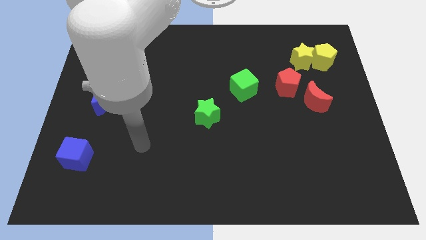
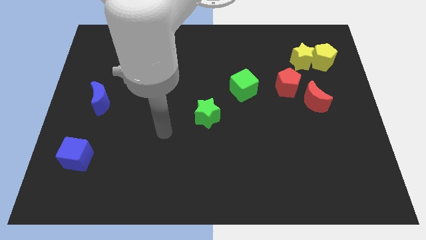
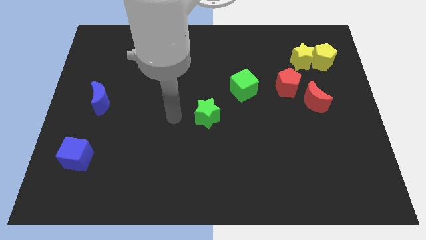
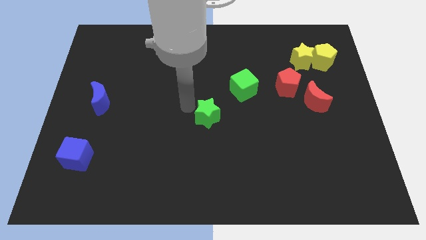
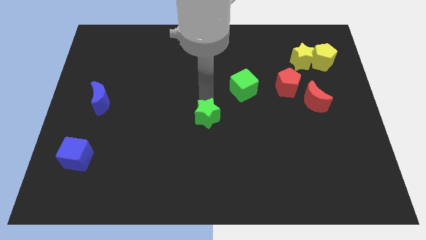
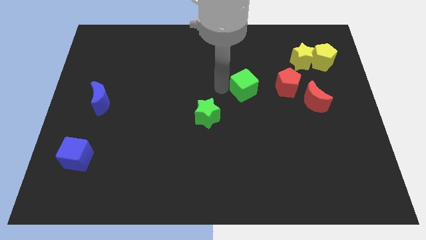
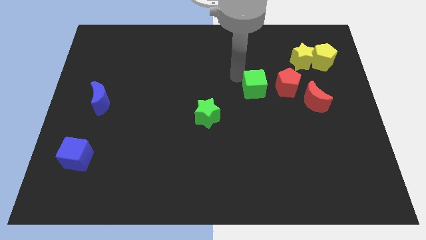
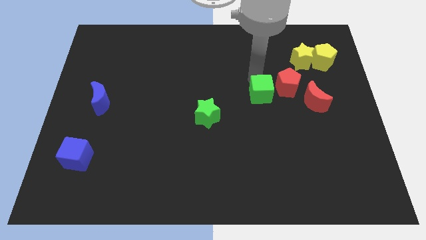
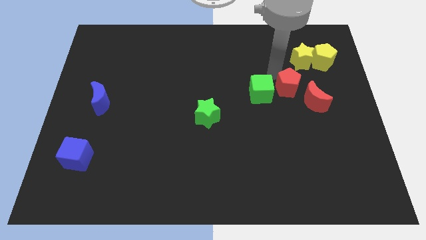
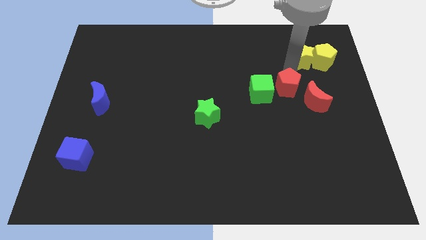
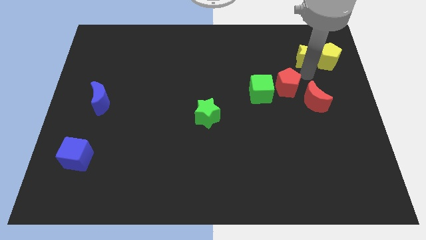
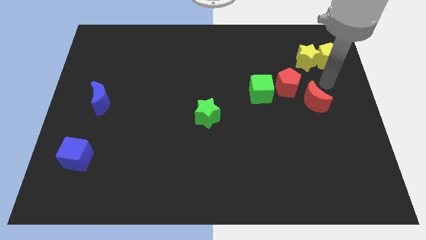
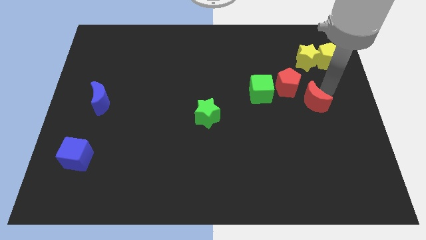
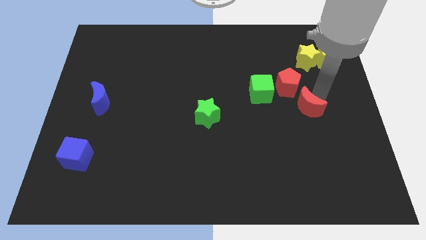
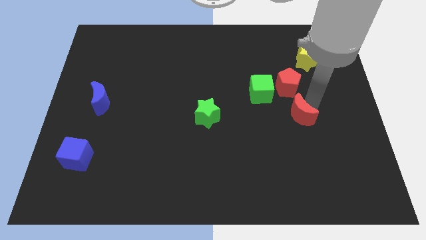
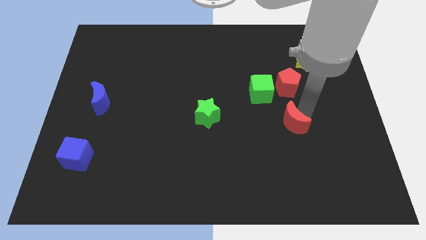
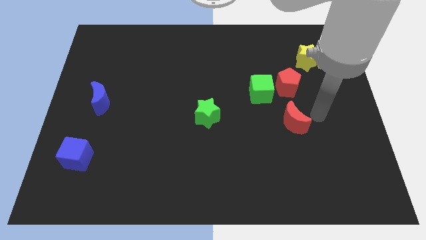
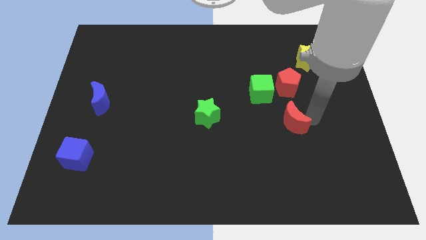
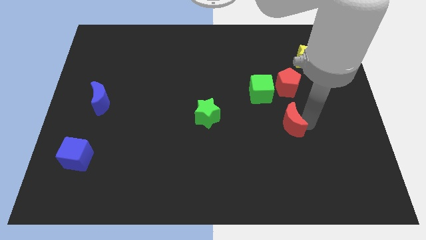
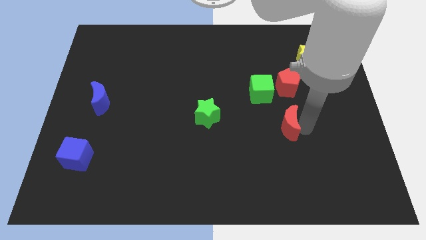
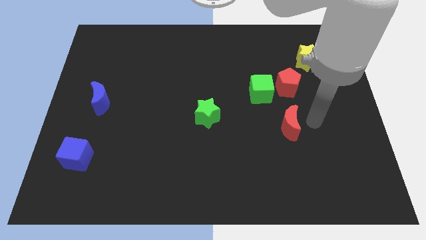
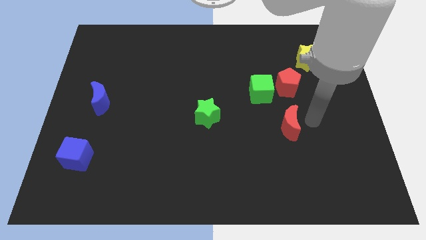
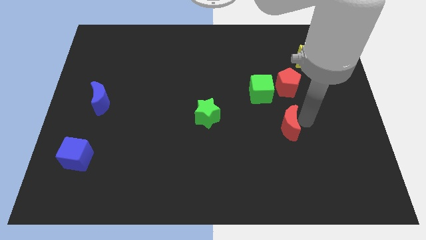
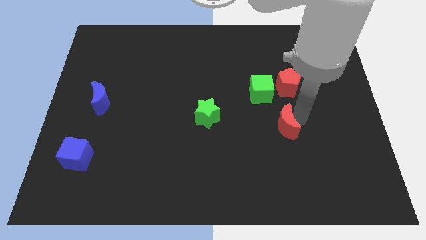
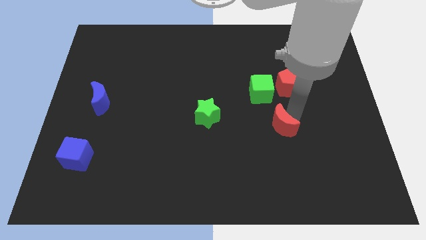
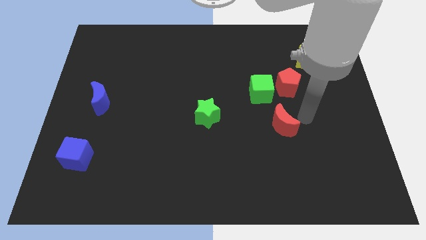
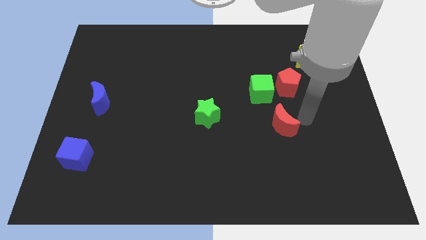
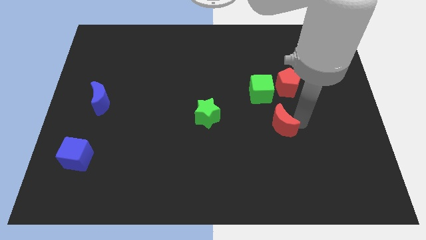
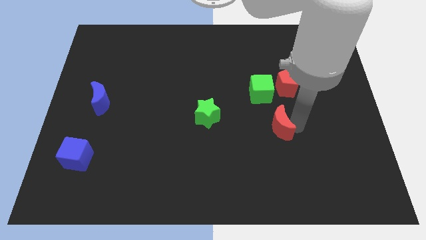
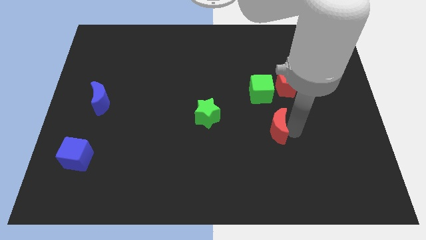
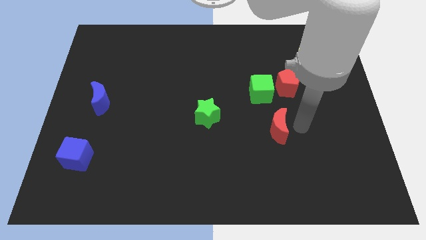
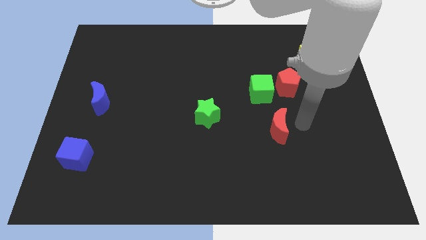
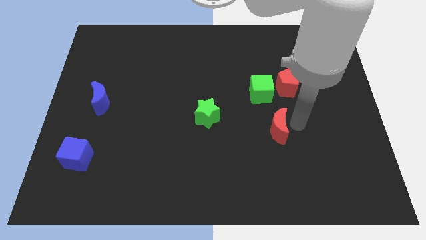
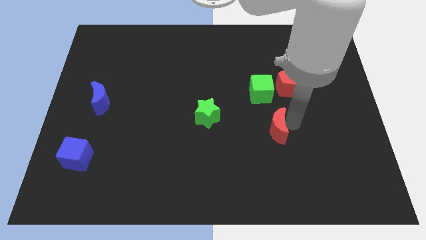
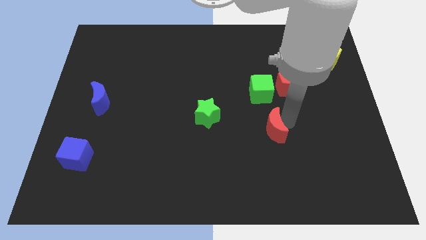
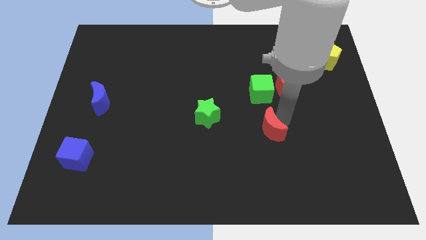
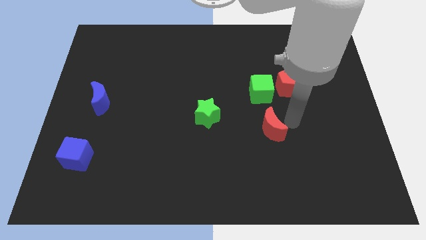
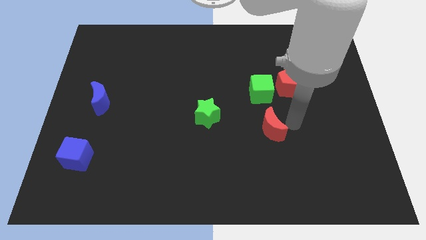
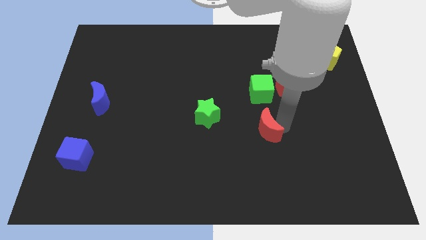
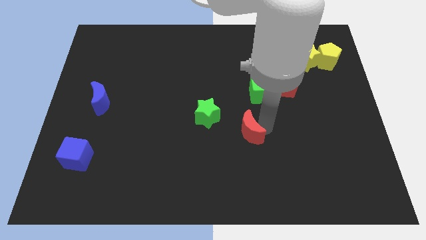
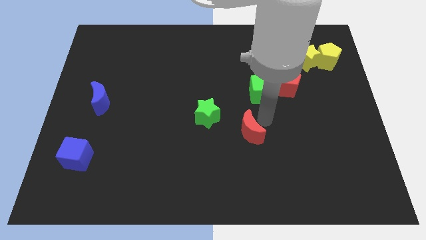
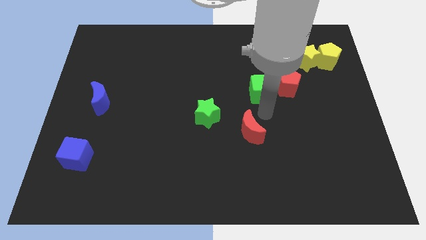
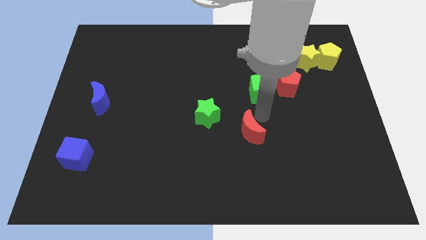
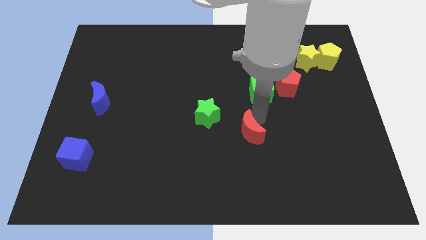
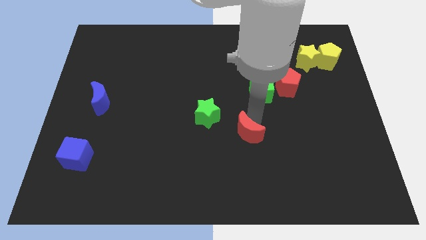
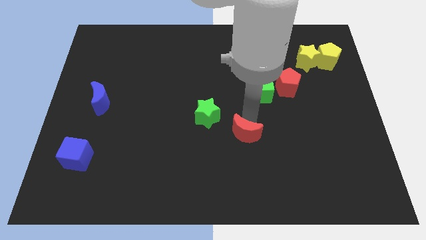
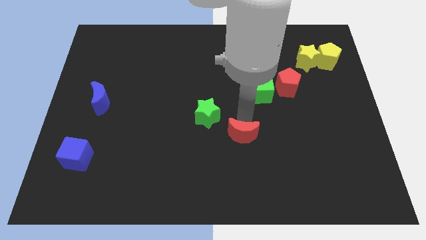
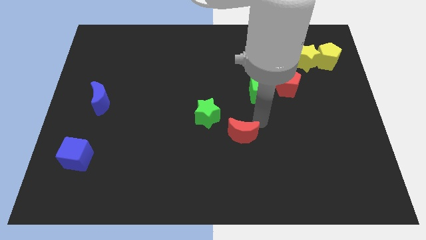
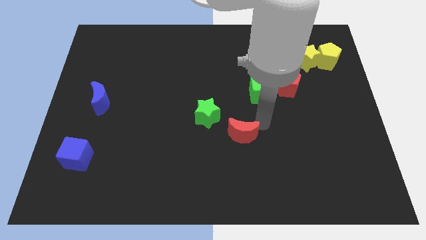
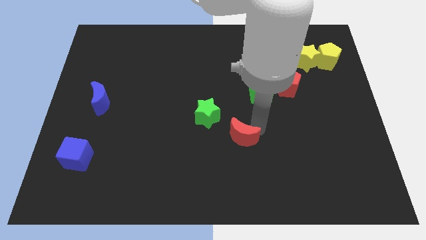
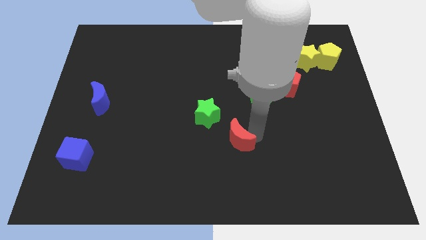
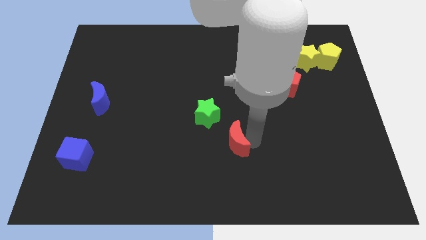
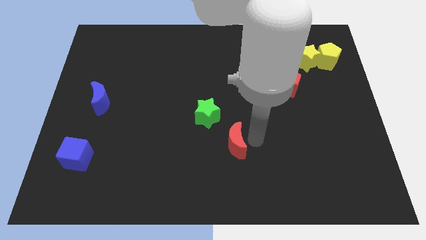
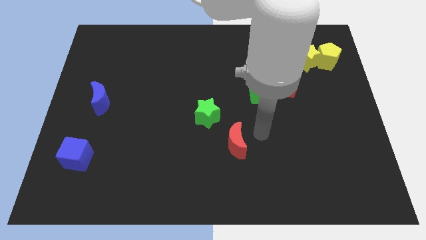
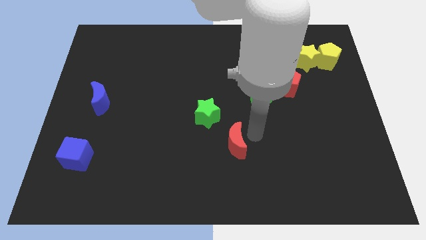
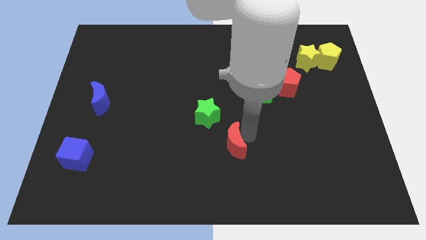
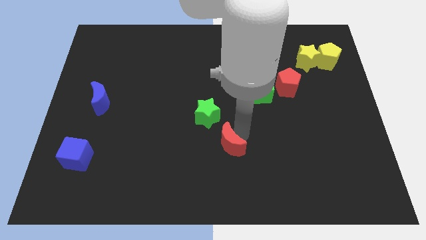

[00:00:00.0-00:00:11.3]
put the red moon to the bottom of the green star

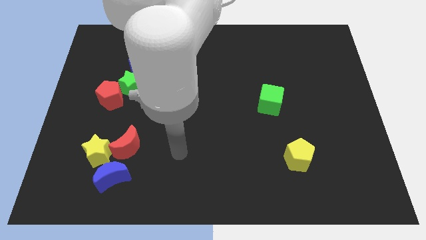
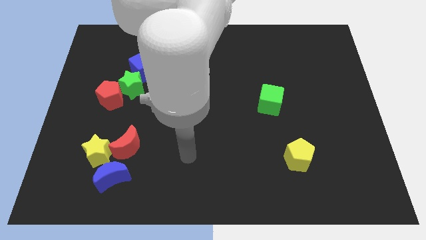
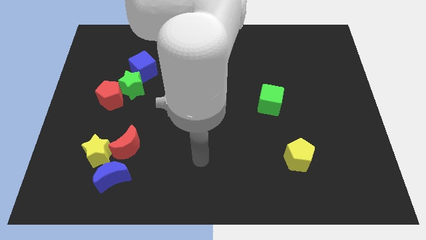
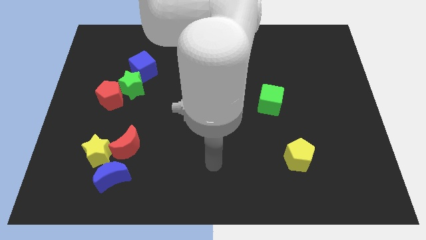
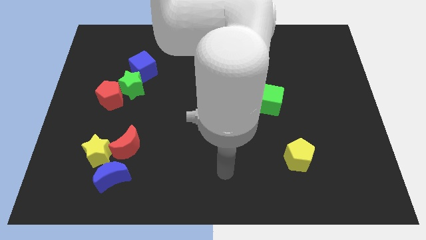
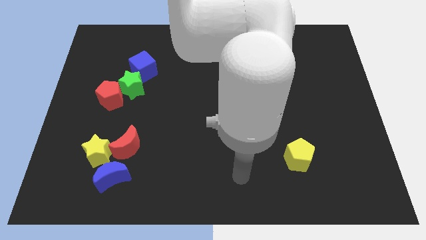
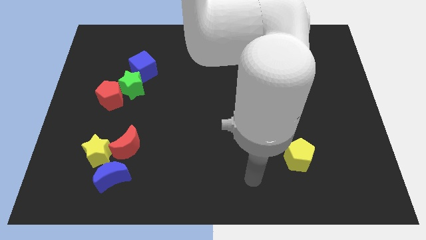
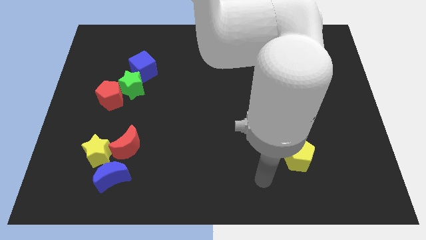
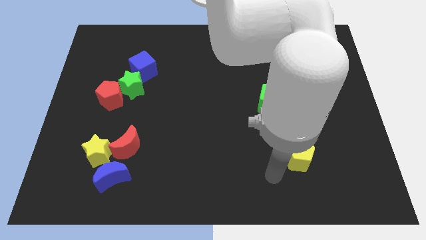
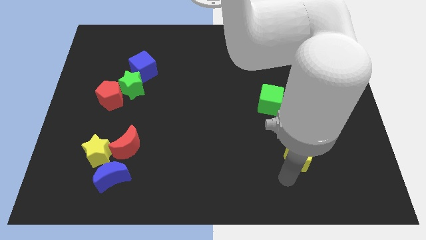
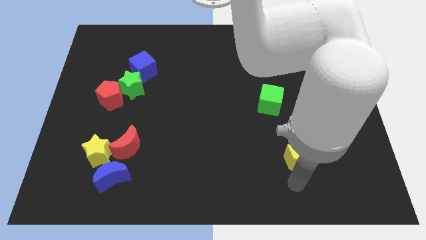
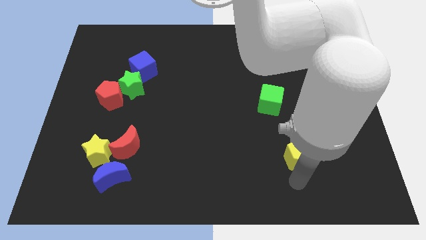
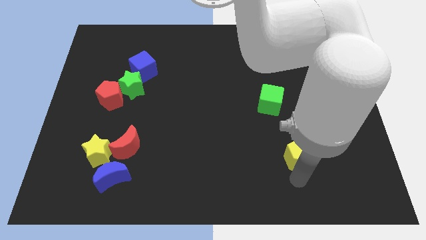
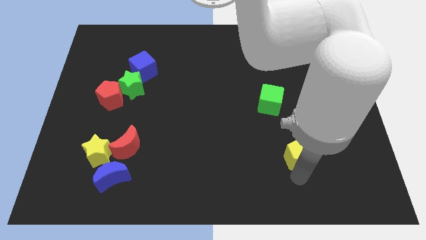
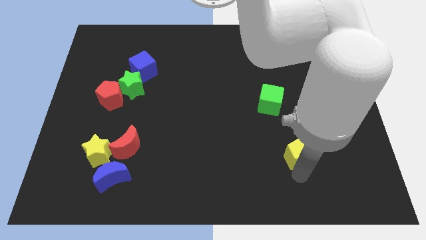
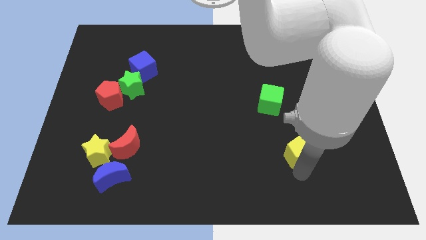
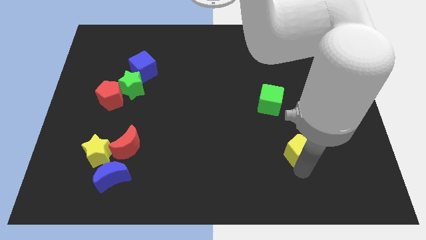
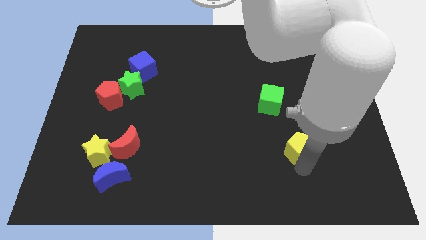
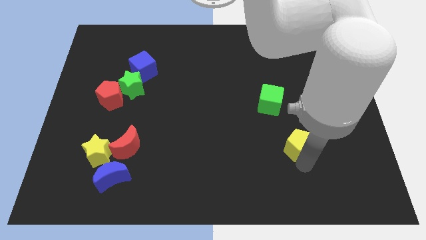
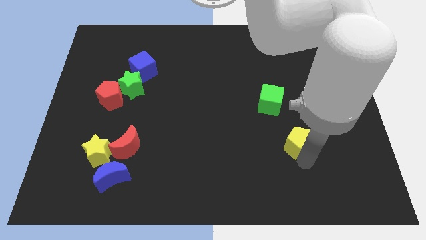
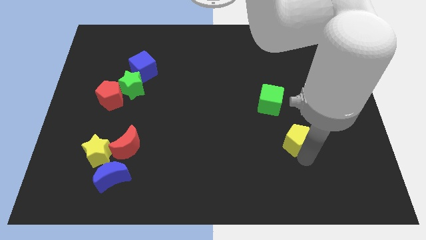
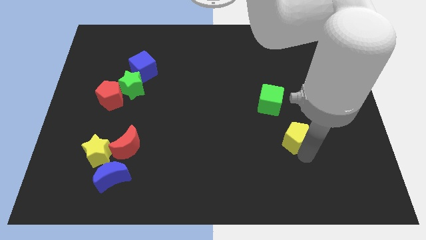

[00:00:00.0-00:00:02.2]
slide the yellow pentagon to the bottom right side of the green cube
